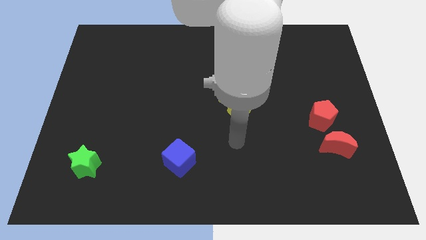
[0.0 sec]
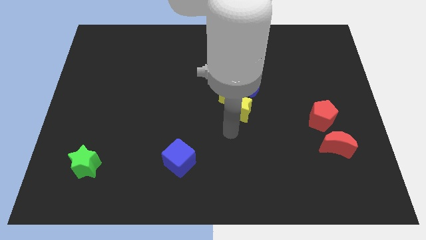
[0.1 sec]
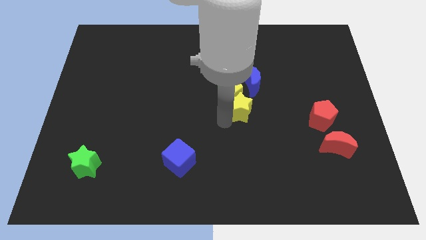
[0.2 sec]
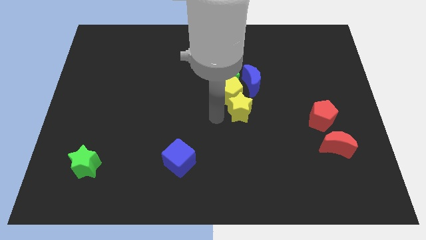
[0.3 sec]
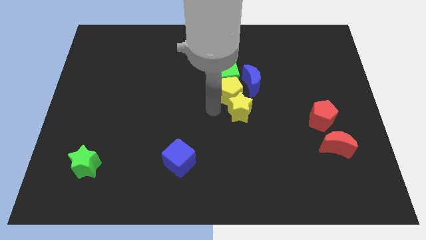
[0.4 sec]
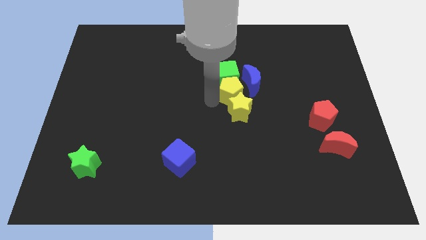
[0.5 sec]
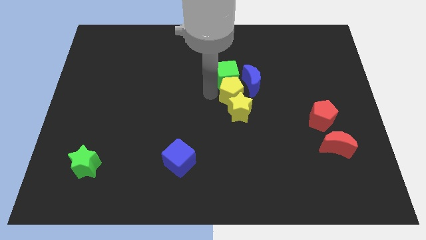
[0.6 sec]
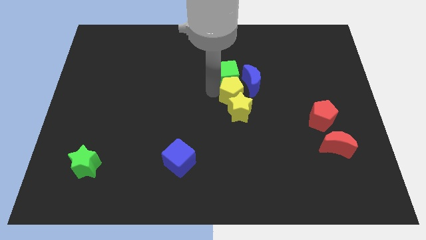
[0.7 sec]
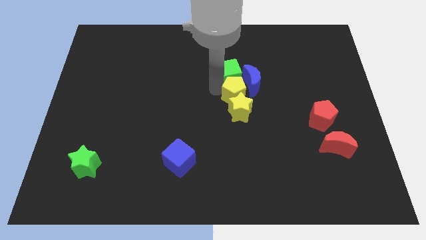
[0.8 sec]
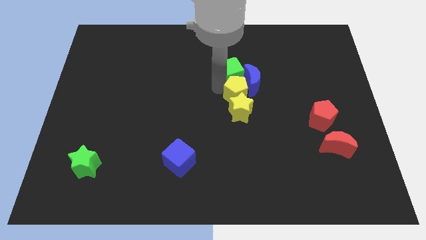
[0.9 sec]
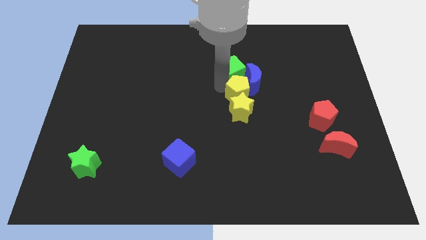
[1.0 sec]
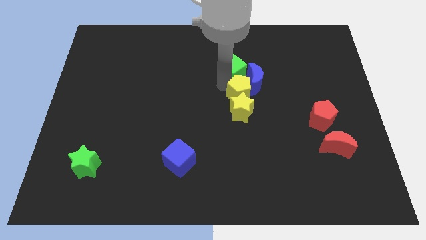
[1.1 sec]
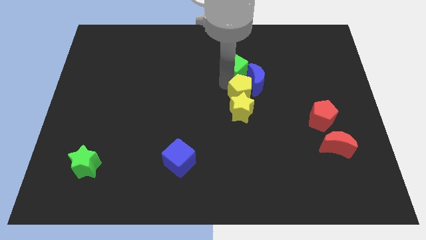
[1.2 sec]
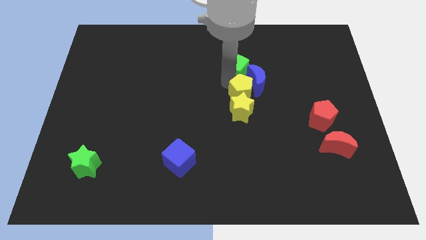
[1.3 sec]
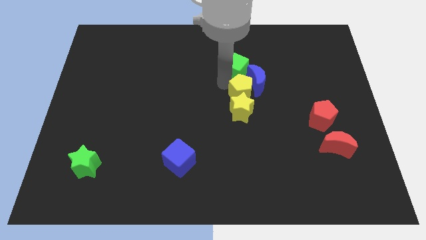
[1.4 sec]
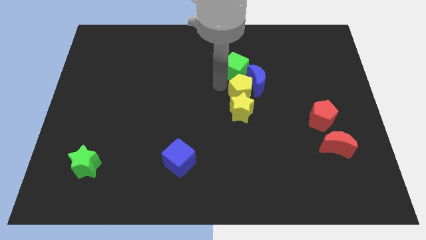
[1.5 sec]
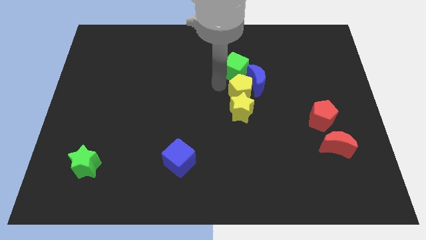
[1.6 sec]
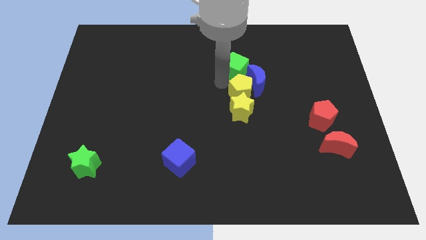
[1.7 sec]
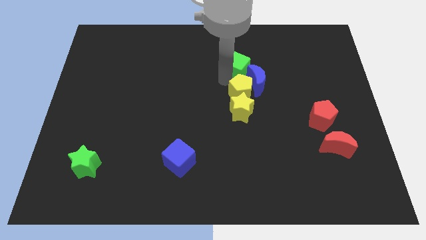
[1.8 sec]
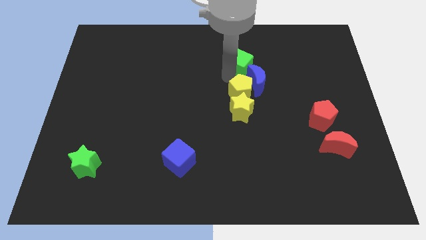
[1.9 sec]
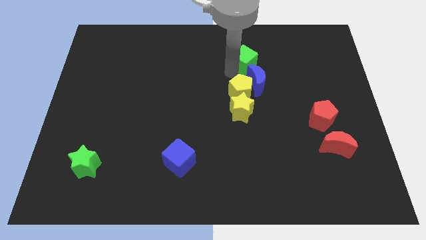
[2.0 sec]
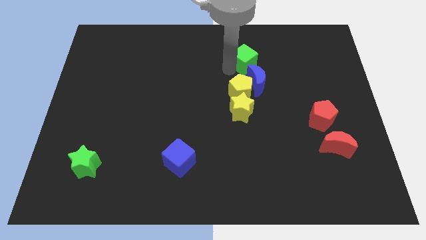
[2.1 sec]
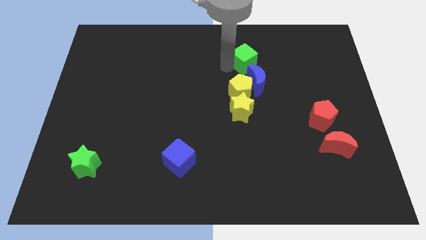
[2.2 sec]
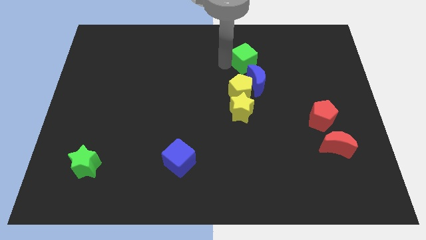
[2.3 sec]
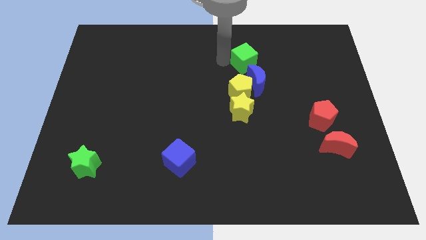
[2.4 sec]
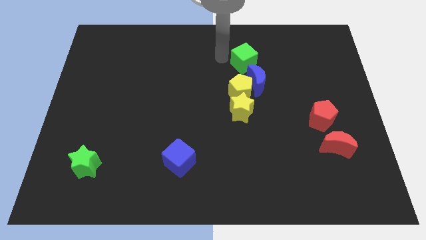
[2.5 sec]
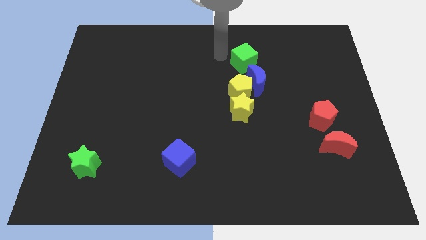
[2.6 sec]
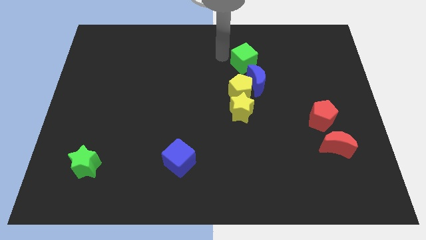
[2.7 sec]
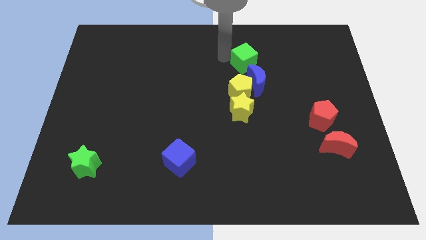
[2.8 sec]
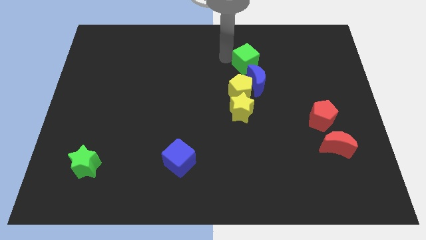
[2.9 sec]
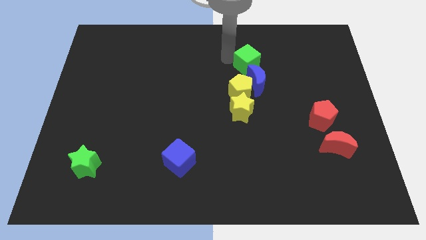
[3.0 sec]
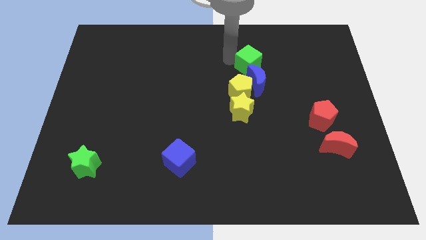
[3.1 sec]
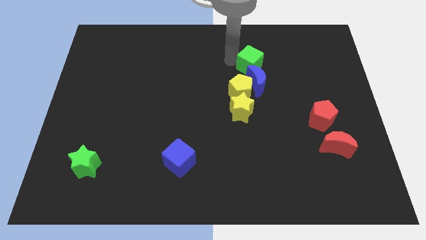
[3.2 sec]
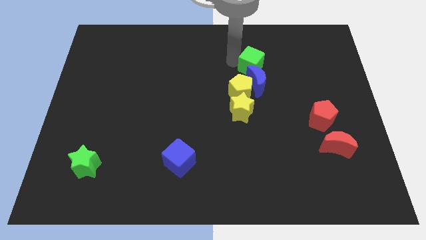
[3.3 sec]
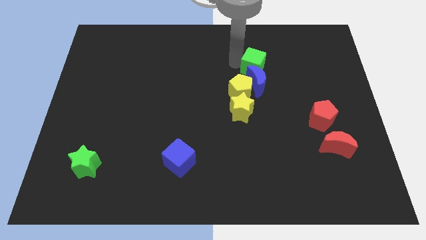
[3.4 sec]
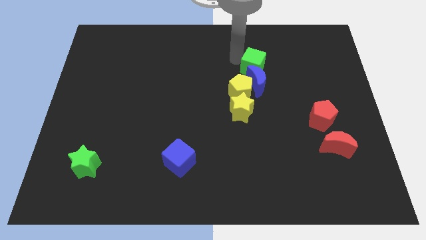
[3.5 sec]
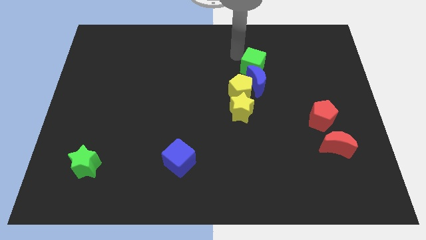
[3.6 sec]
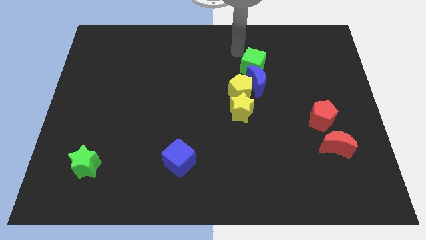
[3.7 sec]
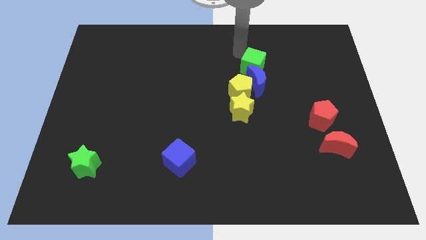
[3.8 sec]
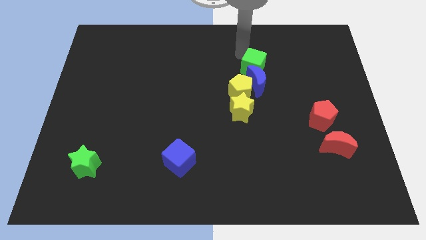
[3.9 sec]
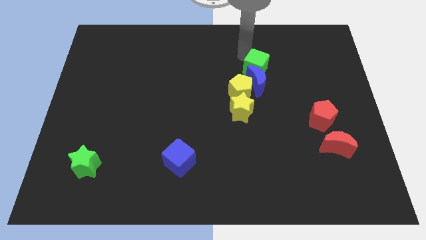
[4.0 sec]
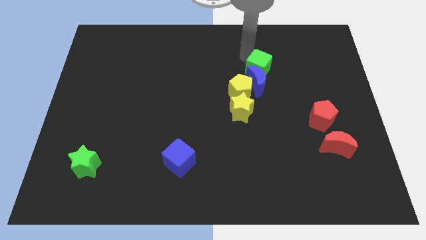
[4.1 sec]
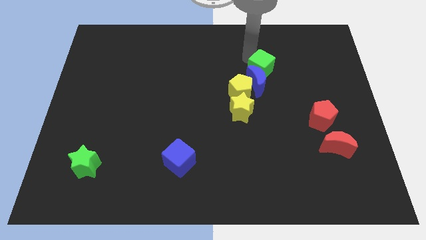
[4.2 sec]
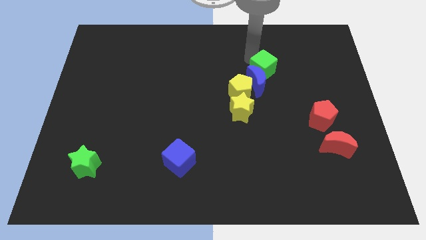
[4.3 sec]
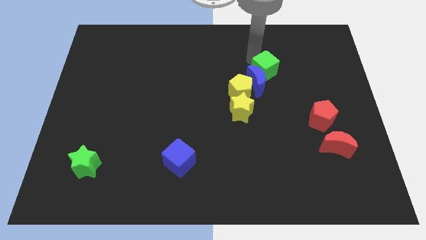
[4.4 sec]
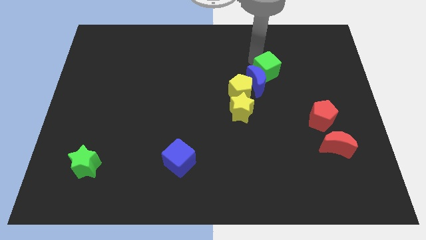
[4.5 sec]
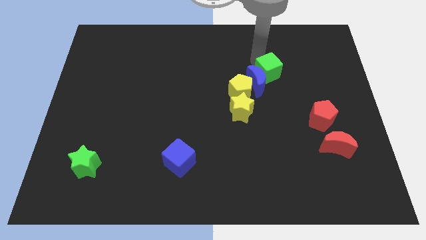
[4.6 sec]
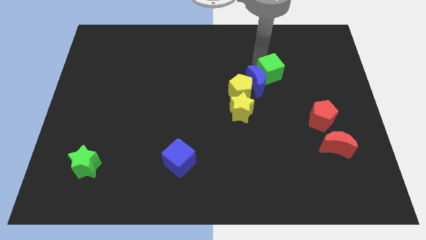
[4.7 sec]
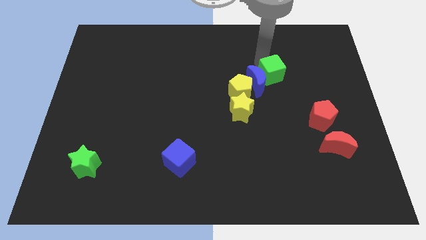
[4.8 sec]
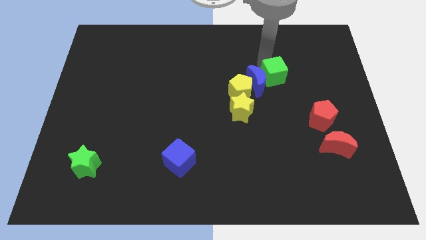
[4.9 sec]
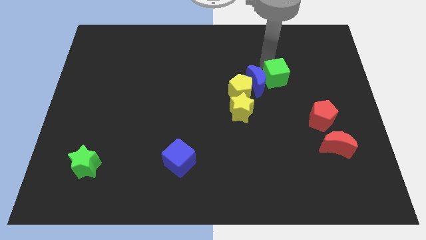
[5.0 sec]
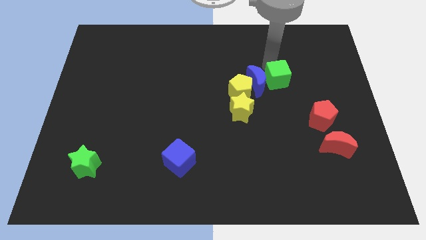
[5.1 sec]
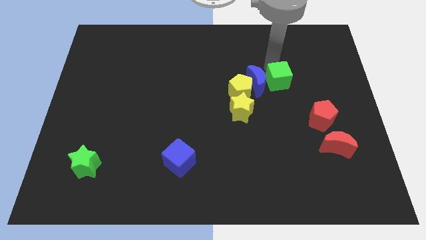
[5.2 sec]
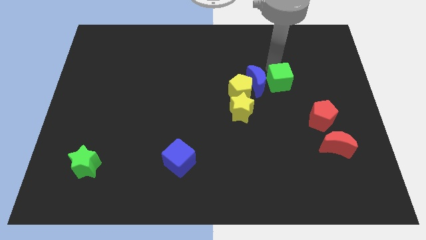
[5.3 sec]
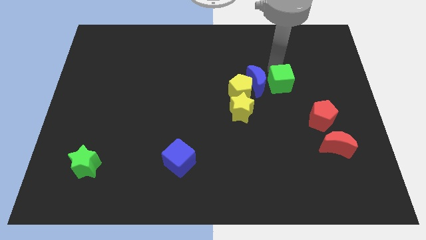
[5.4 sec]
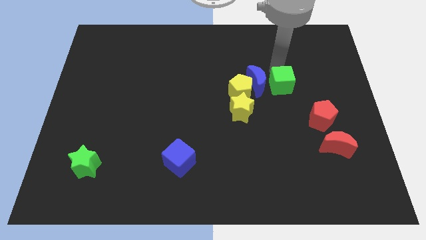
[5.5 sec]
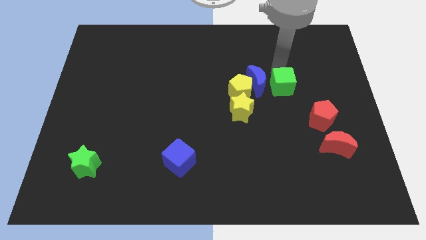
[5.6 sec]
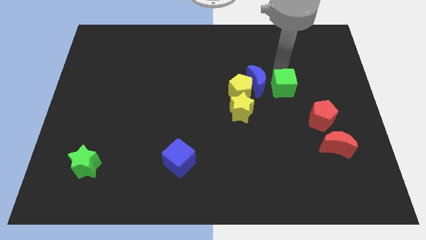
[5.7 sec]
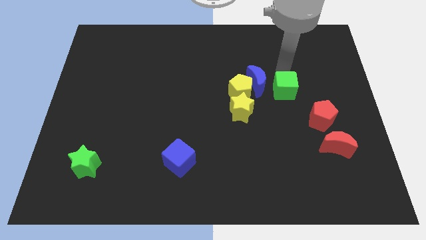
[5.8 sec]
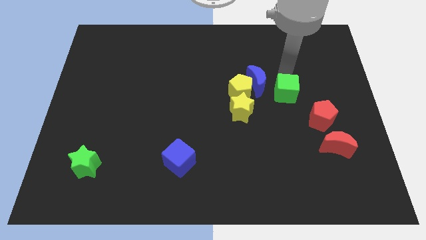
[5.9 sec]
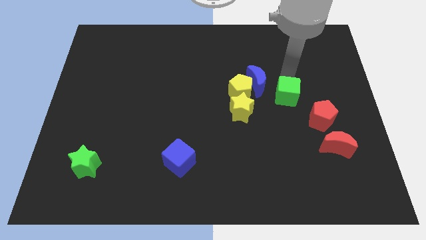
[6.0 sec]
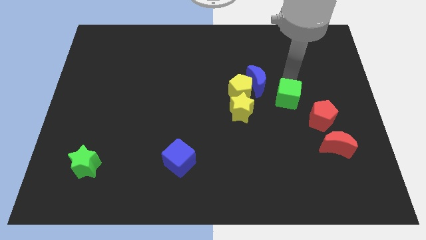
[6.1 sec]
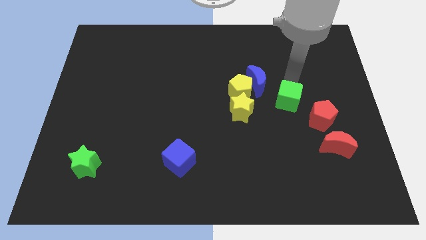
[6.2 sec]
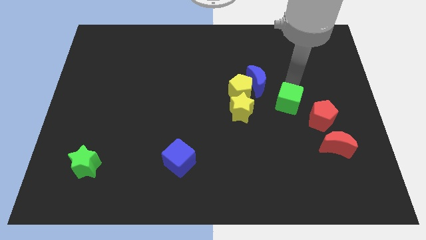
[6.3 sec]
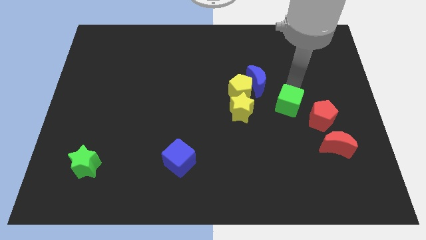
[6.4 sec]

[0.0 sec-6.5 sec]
put the green cube to the left side of the red pentagon
